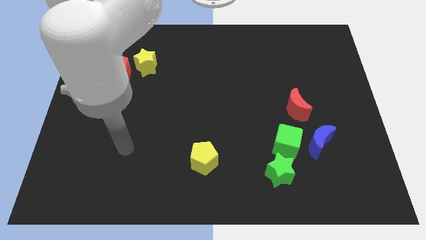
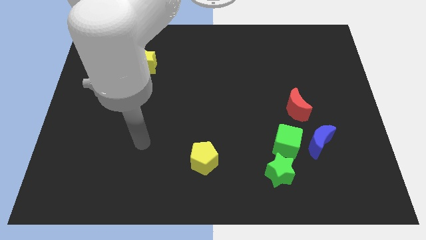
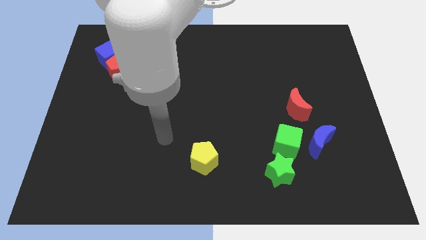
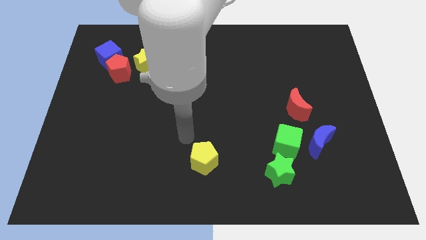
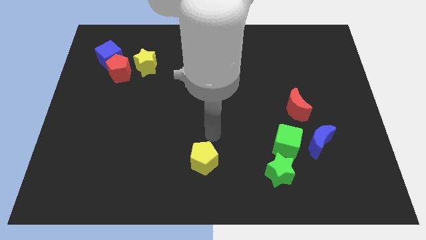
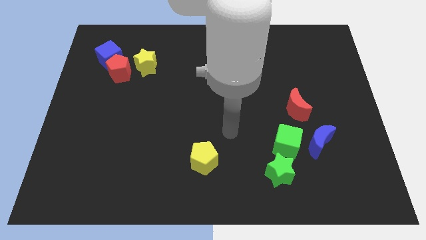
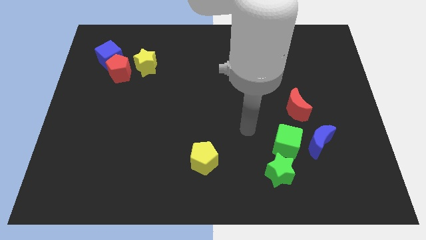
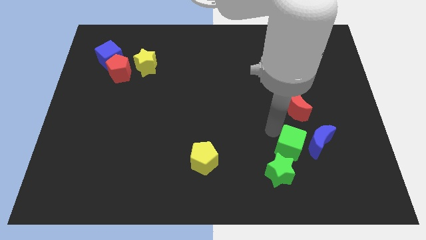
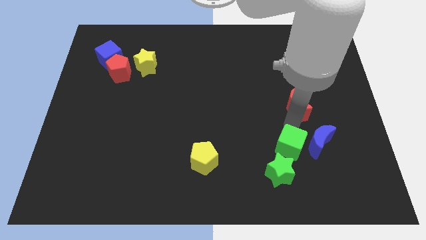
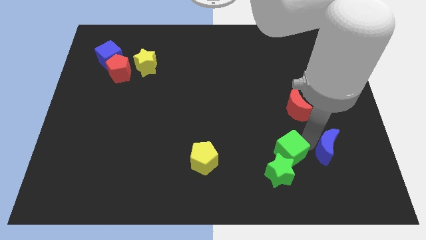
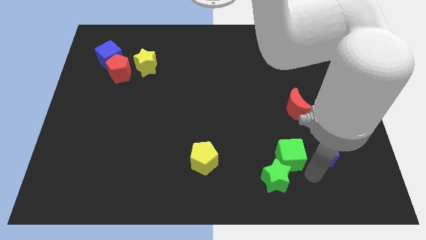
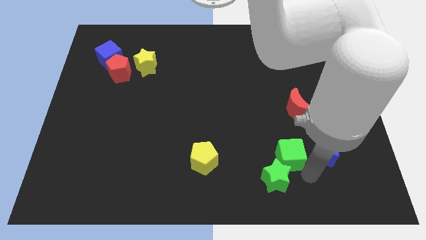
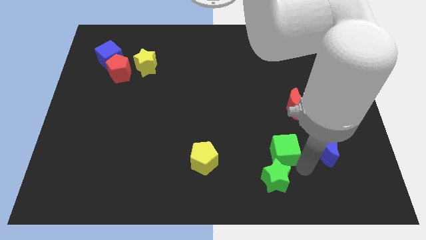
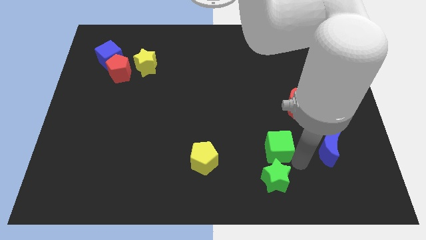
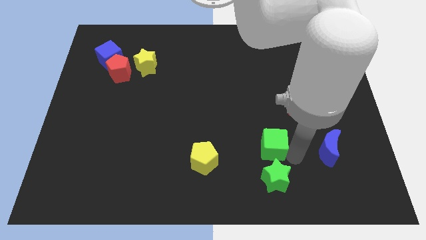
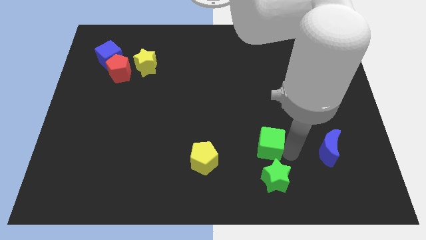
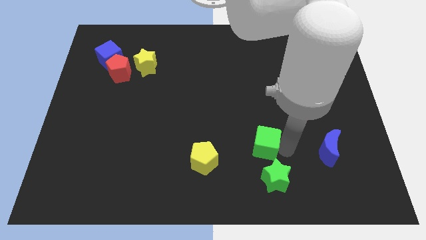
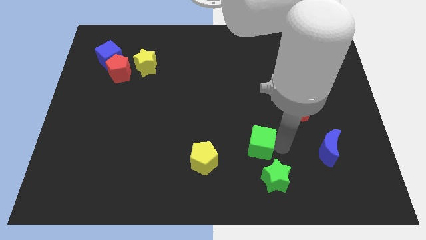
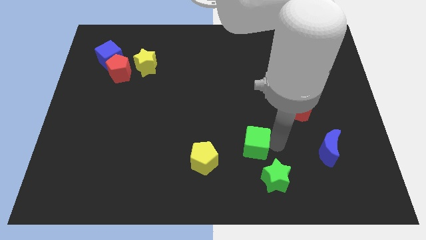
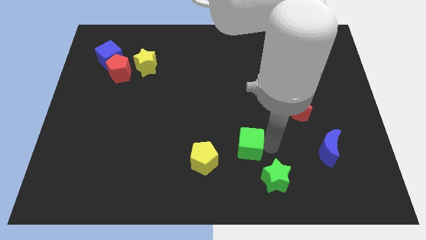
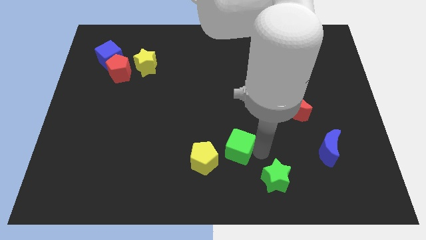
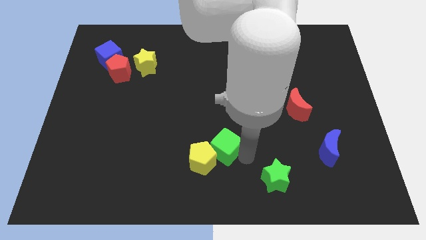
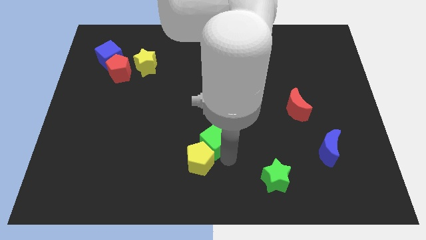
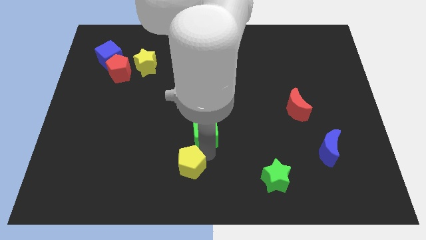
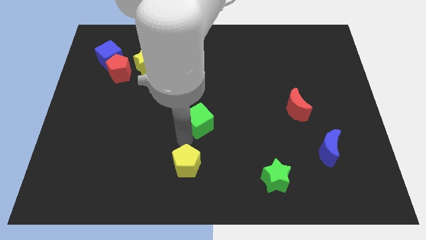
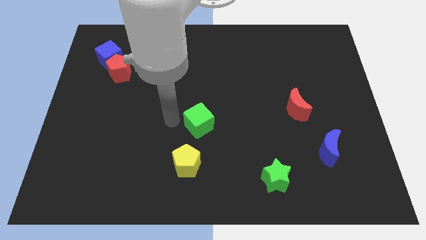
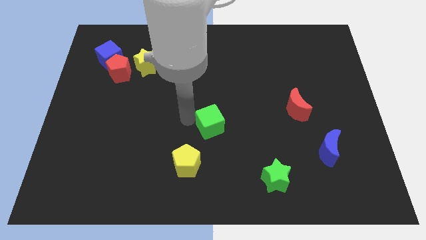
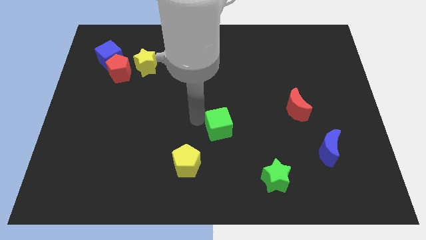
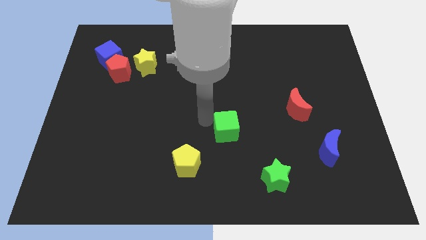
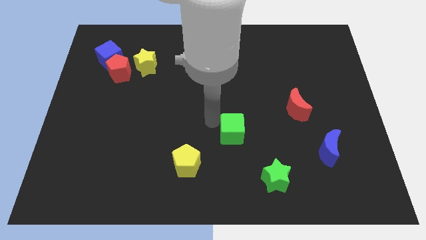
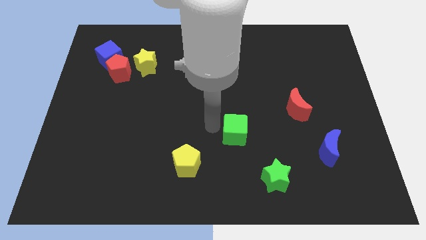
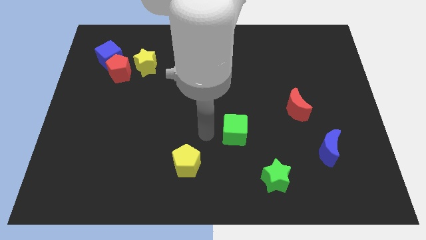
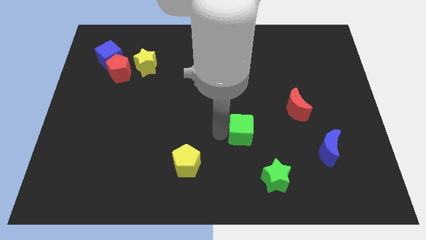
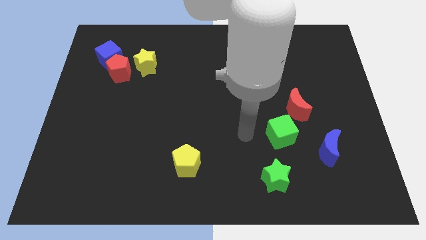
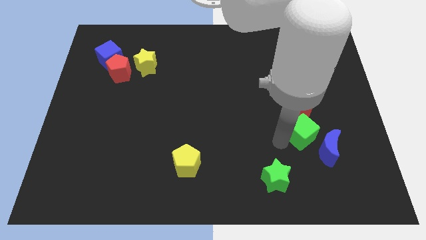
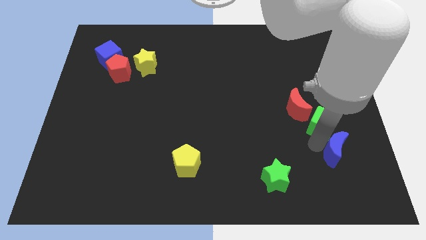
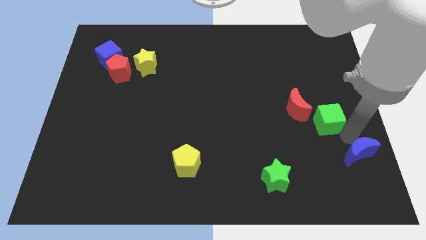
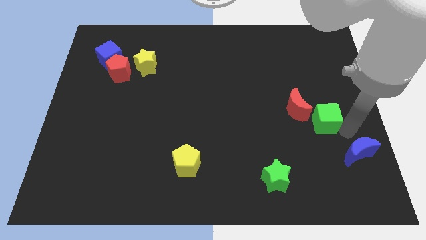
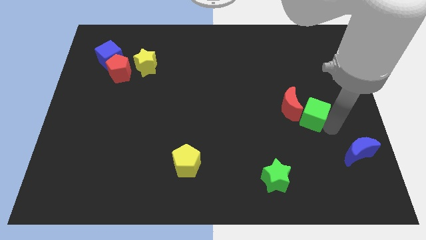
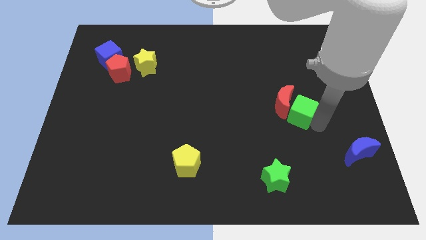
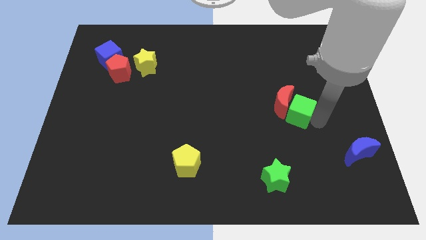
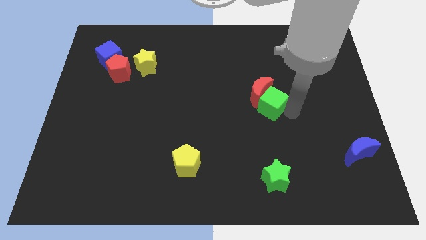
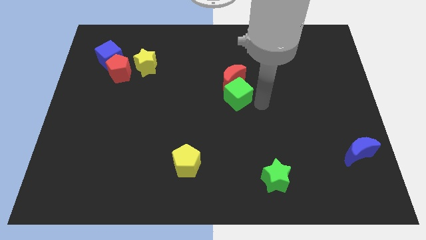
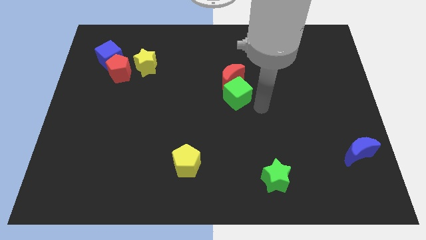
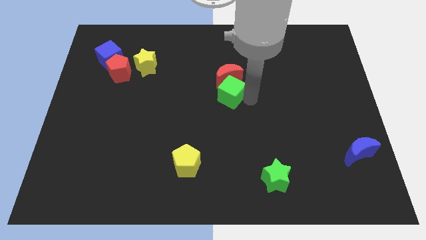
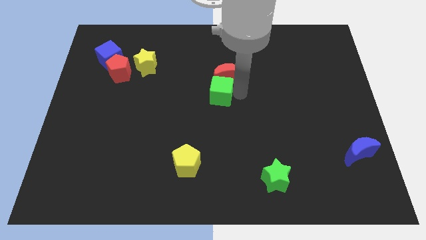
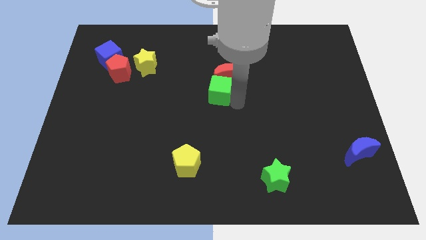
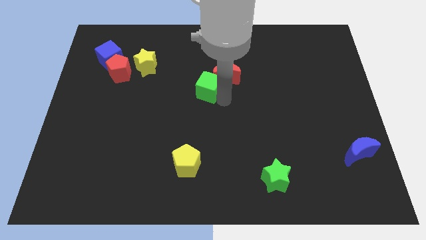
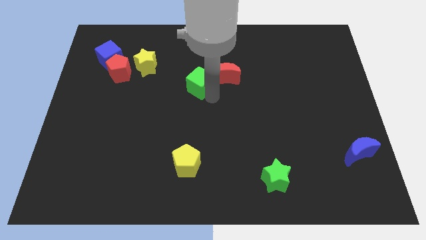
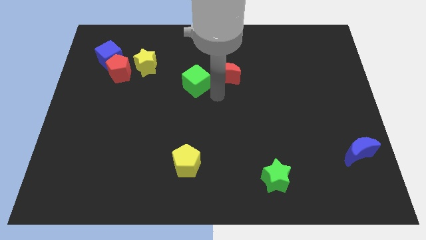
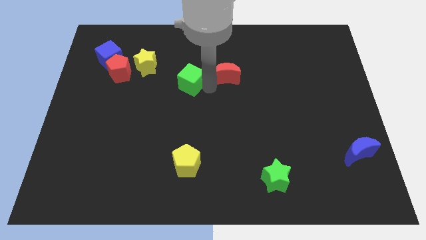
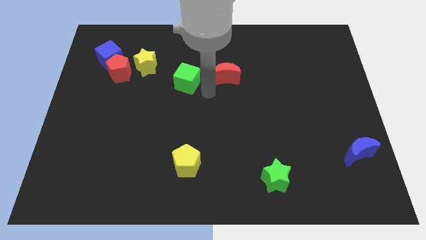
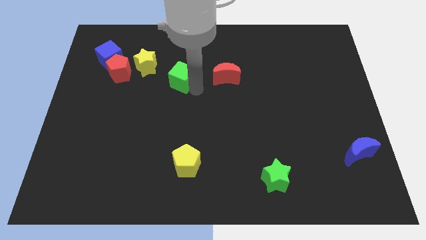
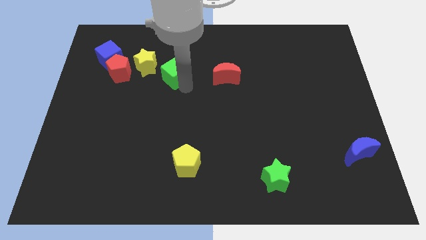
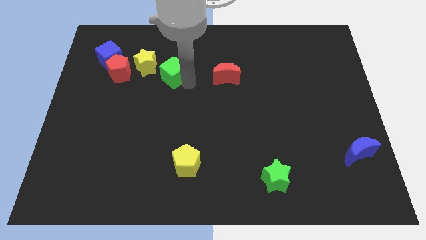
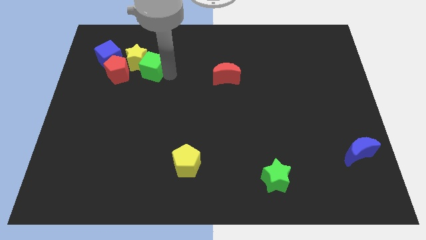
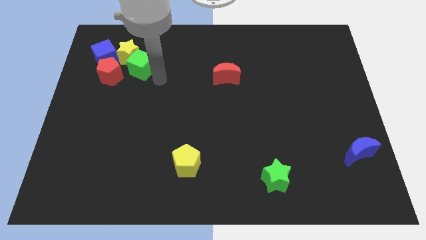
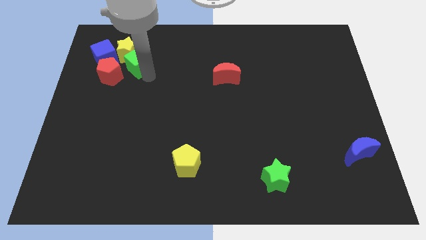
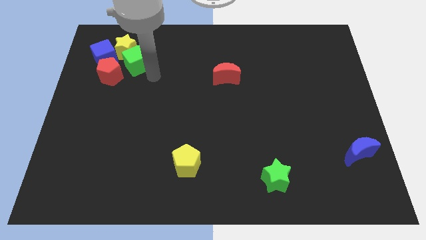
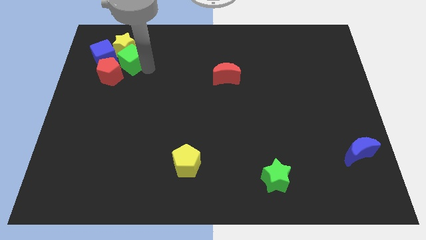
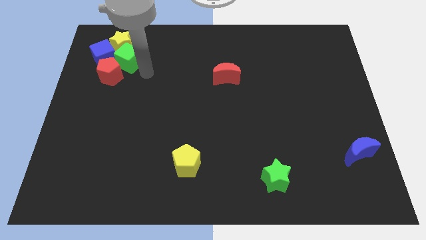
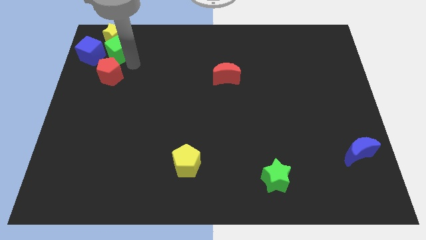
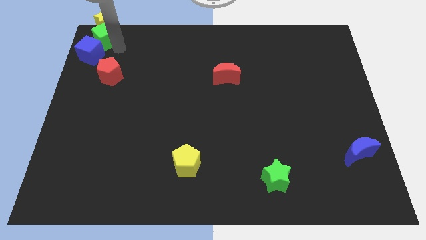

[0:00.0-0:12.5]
slide the green cube to the top left of the board

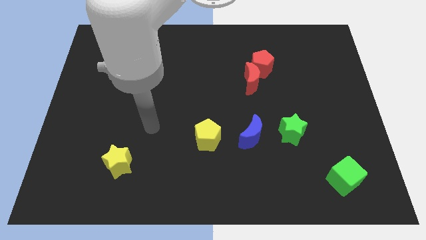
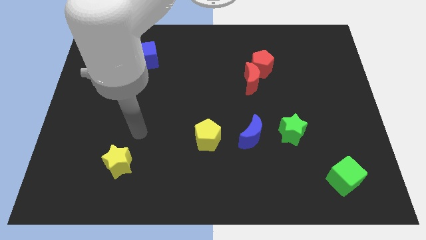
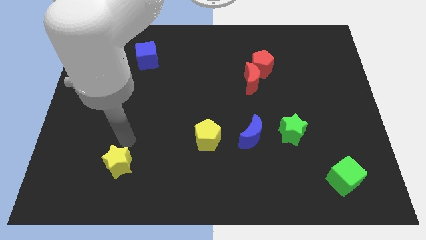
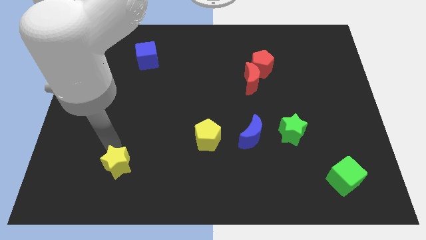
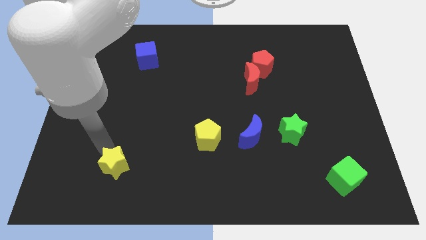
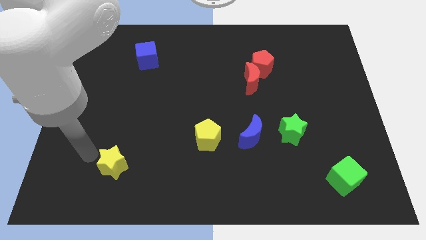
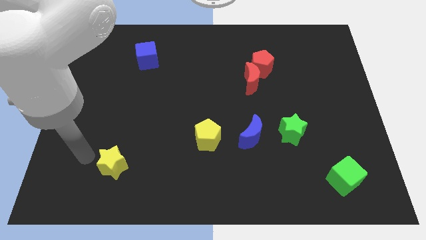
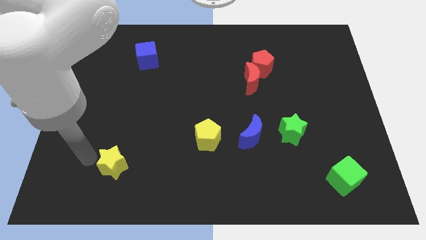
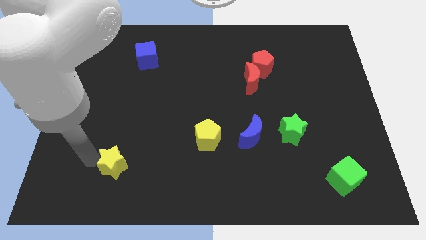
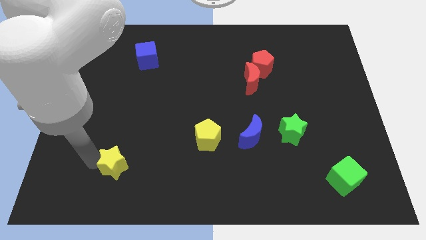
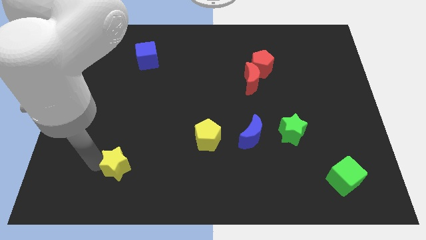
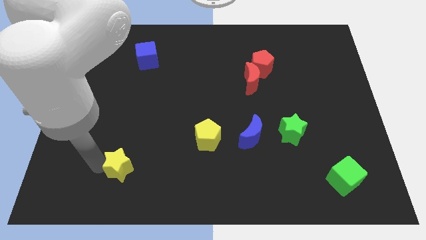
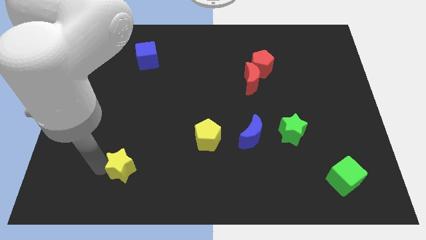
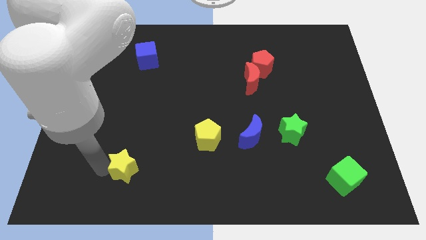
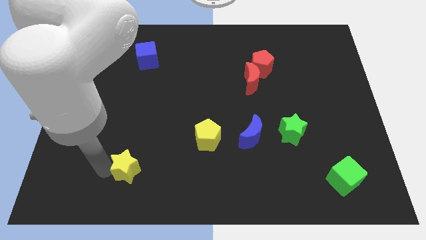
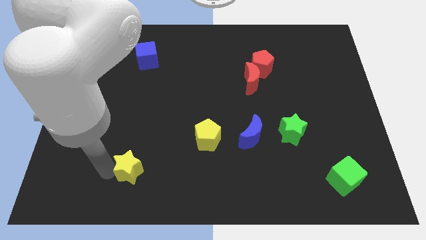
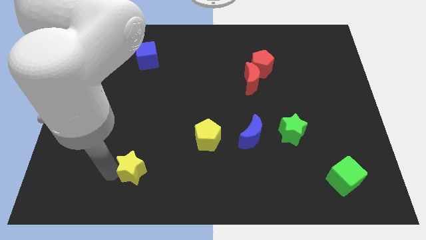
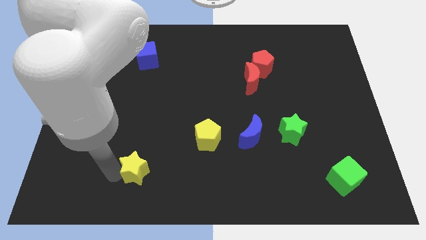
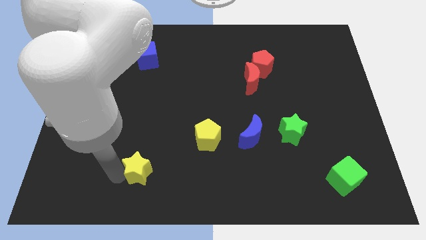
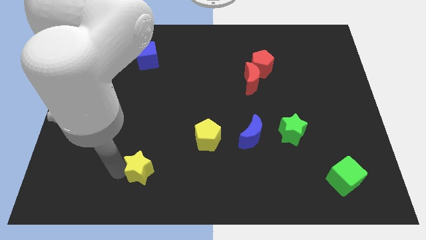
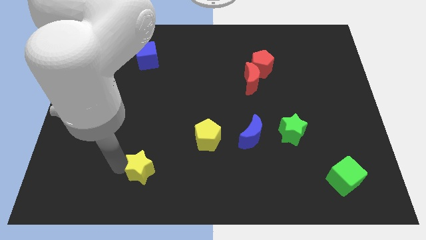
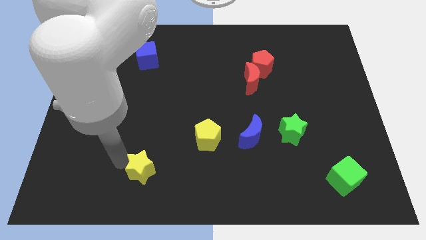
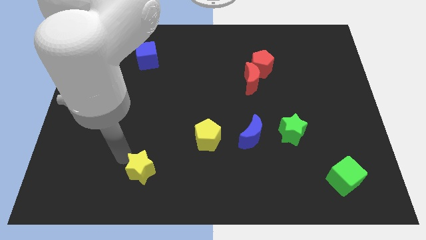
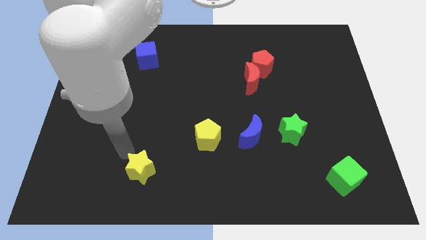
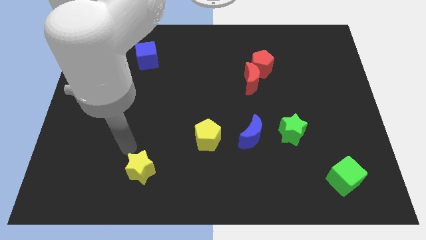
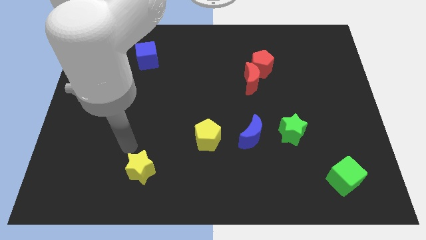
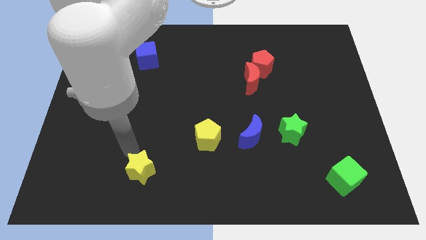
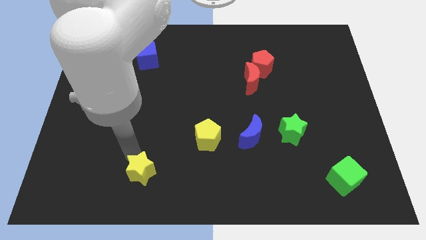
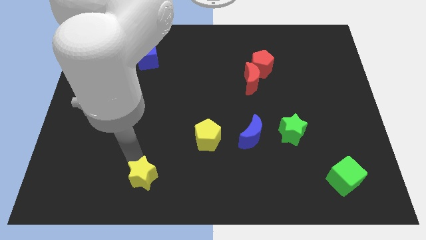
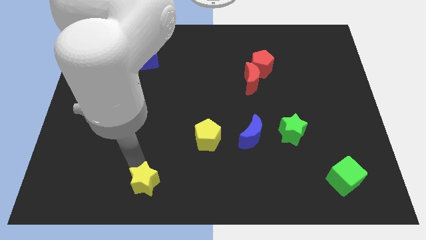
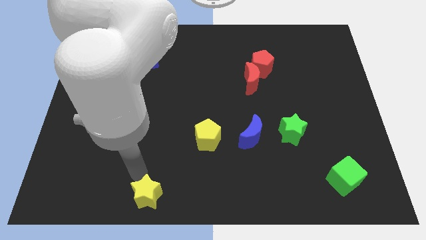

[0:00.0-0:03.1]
push the yellow star to the bottom
